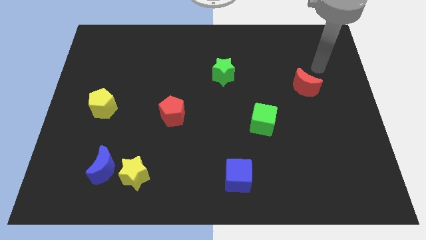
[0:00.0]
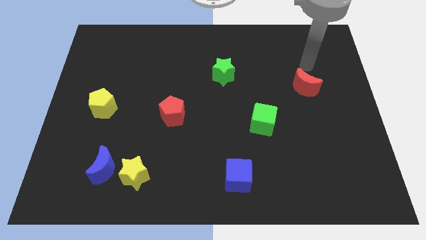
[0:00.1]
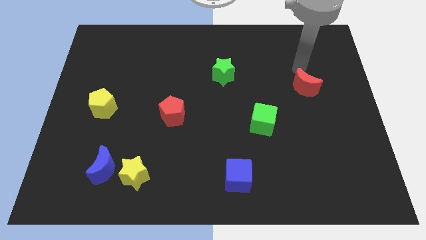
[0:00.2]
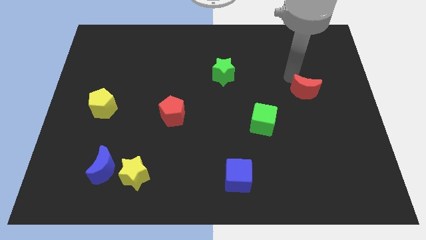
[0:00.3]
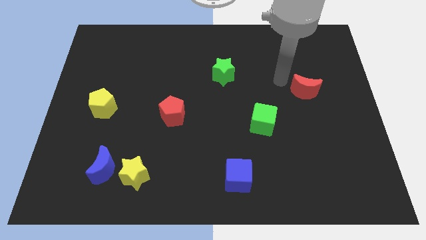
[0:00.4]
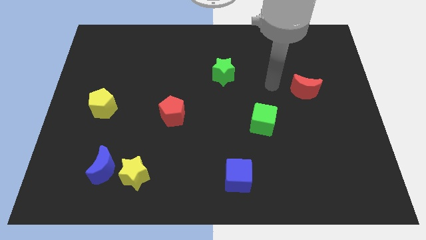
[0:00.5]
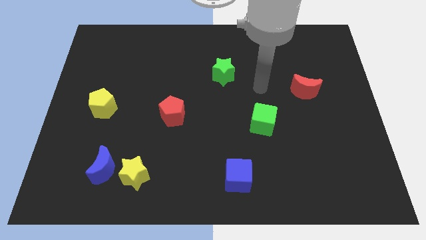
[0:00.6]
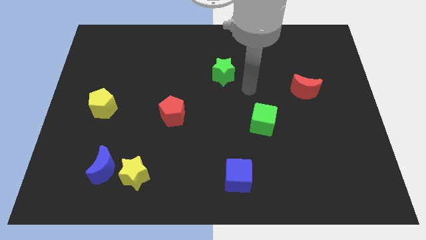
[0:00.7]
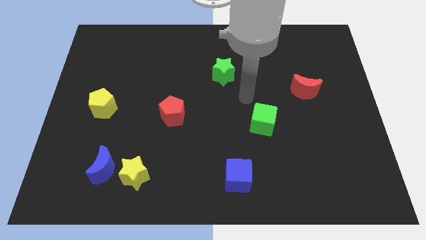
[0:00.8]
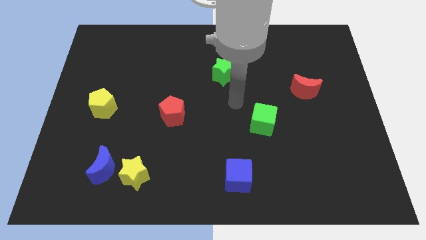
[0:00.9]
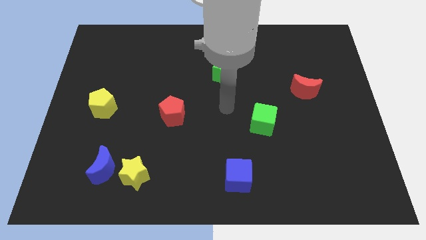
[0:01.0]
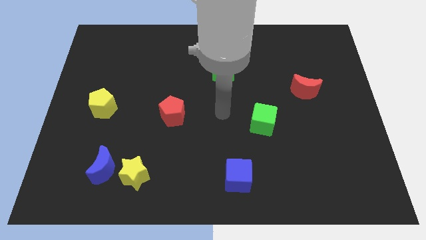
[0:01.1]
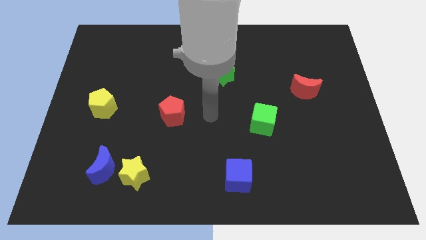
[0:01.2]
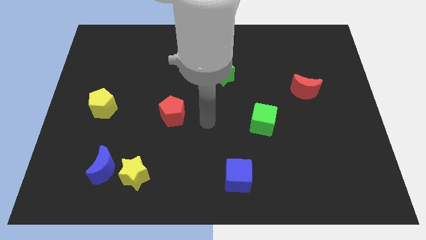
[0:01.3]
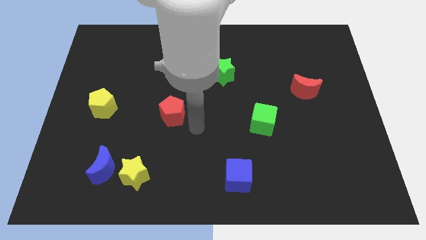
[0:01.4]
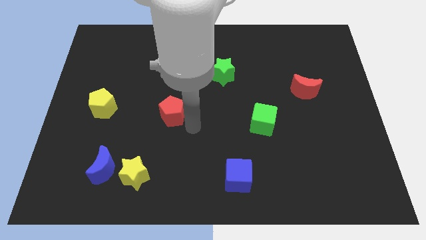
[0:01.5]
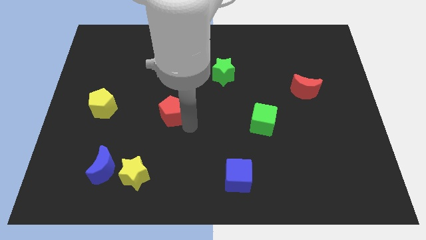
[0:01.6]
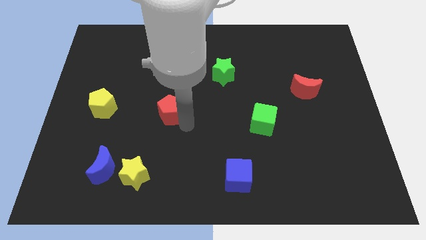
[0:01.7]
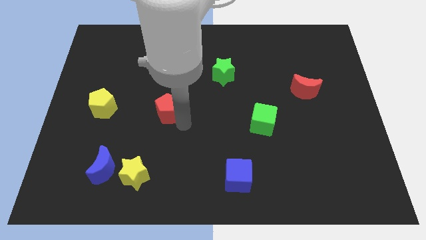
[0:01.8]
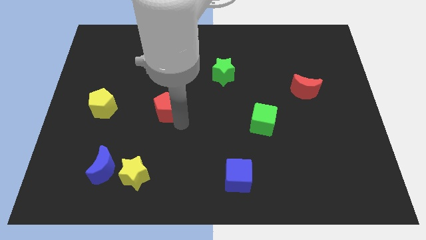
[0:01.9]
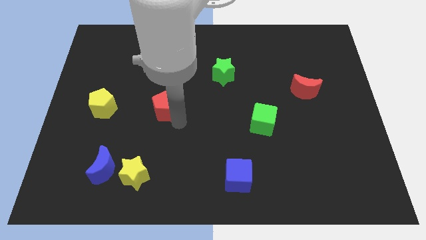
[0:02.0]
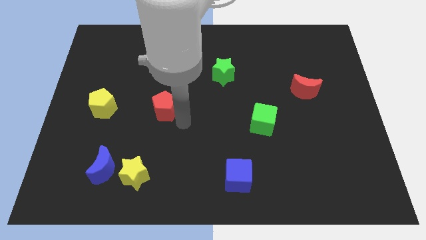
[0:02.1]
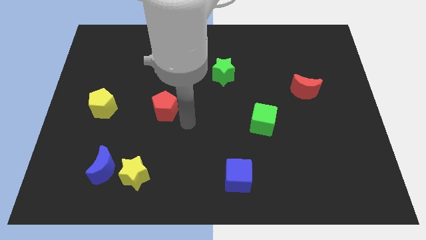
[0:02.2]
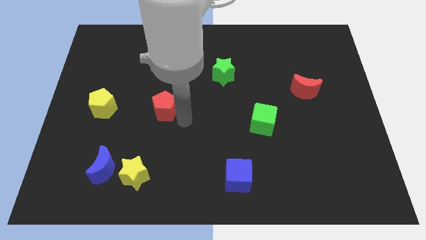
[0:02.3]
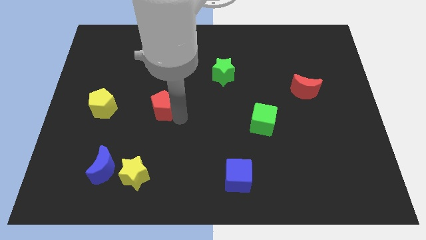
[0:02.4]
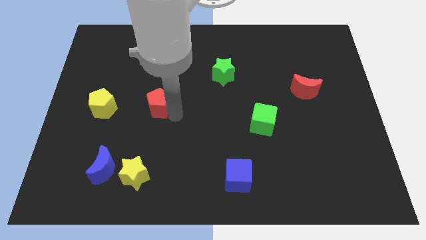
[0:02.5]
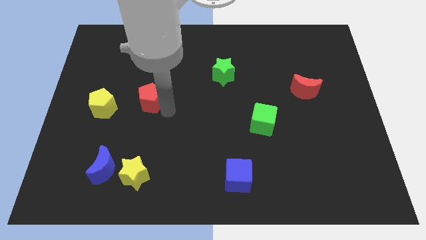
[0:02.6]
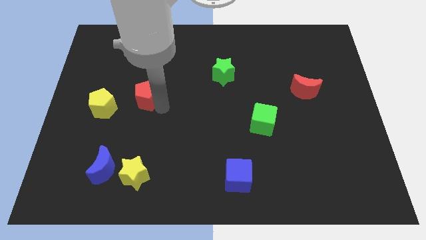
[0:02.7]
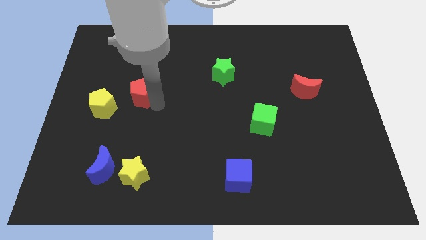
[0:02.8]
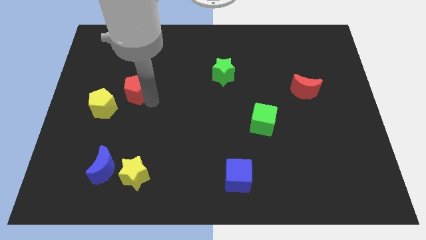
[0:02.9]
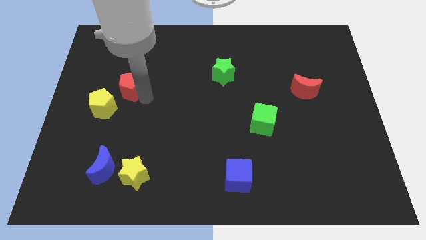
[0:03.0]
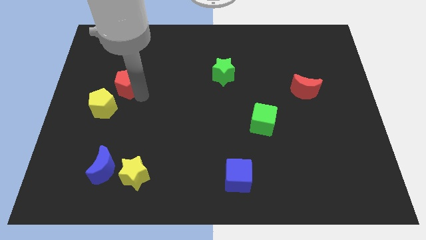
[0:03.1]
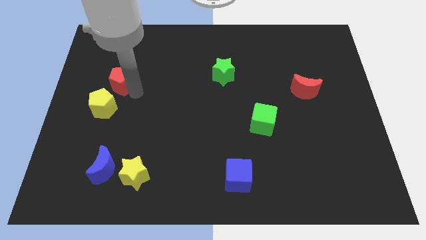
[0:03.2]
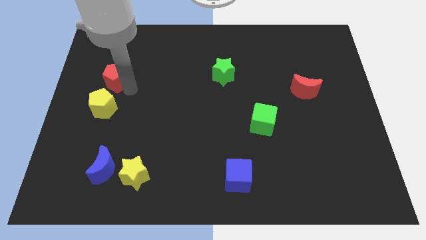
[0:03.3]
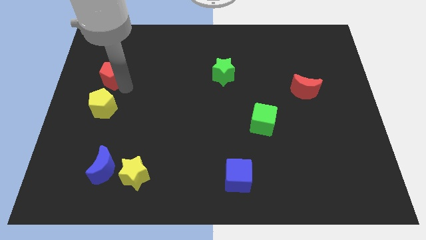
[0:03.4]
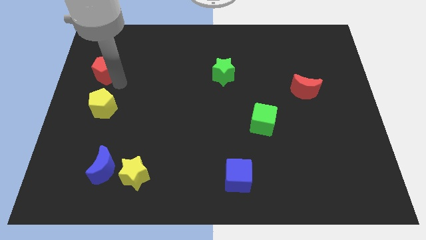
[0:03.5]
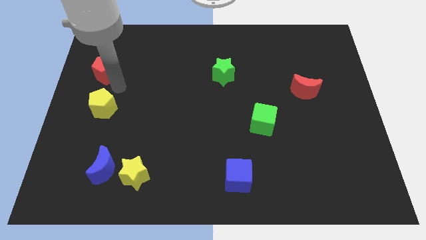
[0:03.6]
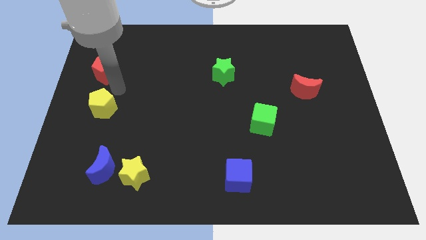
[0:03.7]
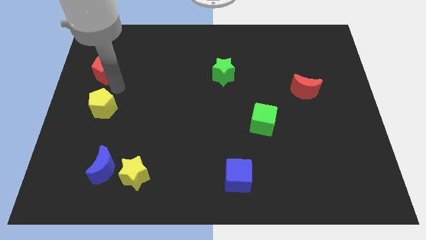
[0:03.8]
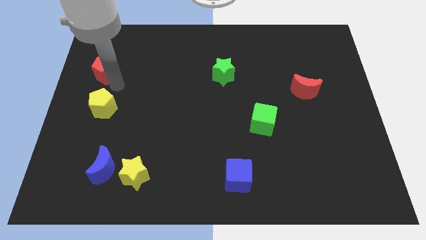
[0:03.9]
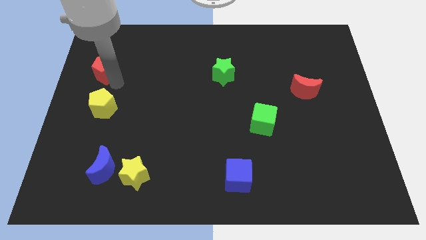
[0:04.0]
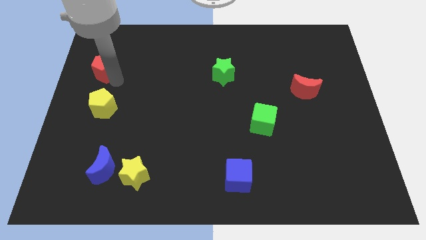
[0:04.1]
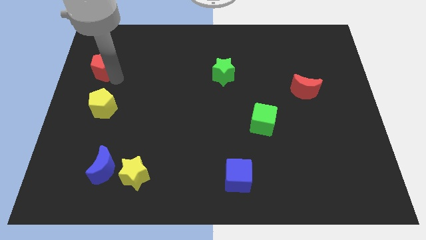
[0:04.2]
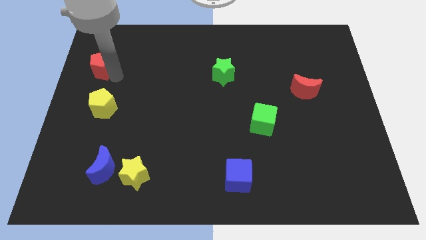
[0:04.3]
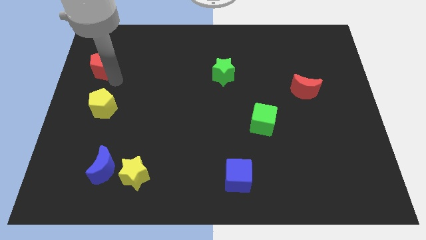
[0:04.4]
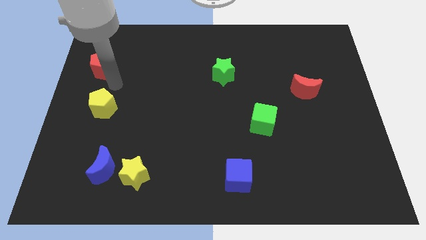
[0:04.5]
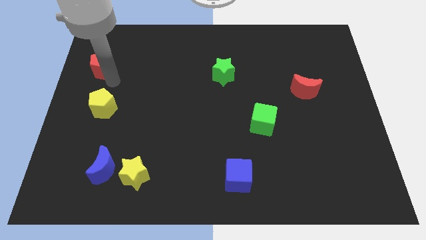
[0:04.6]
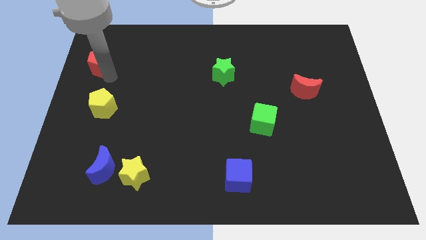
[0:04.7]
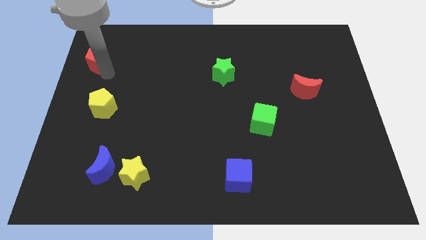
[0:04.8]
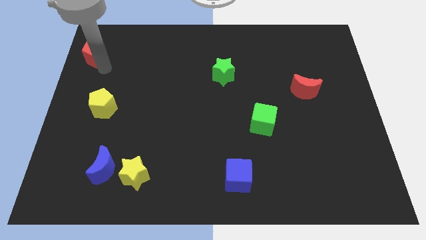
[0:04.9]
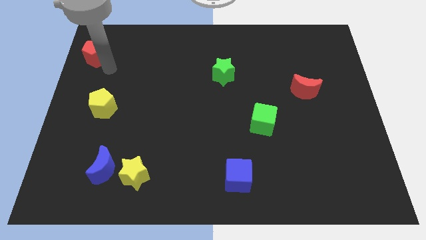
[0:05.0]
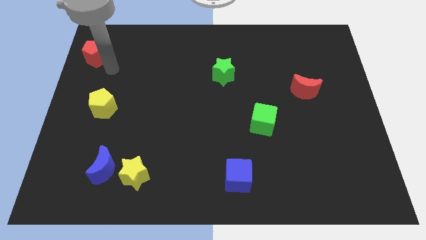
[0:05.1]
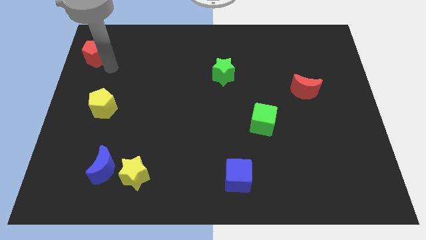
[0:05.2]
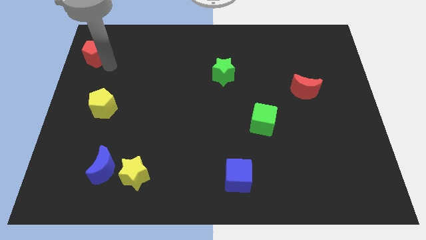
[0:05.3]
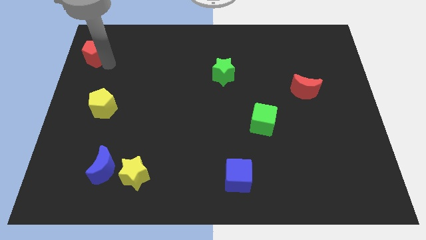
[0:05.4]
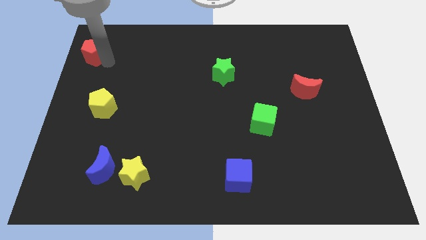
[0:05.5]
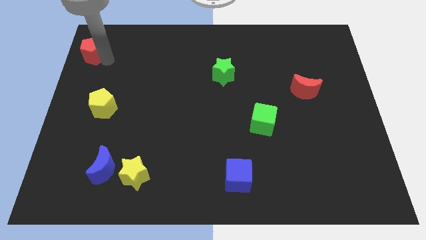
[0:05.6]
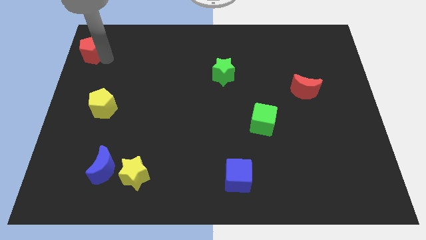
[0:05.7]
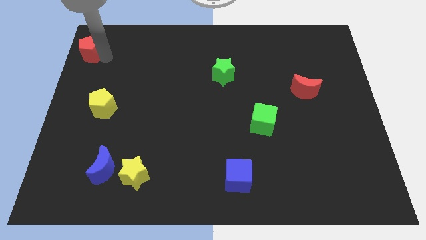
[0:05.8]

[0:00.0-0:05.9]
move the red pentagon to the top left corner

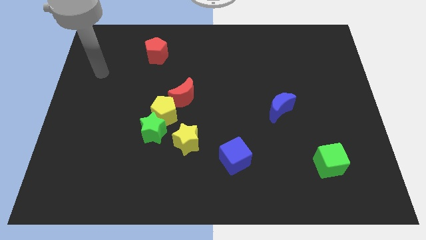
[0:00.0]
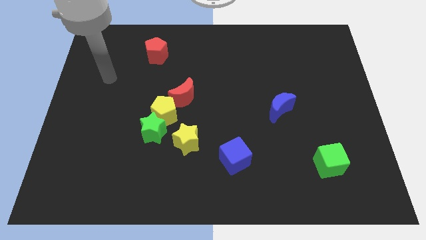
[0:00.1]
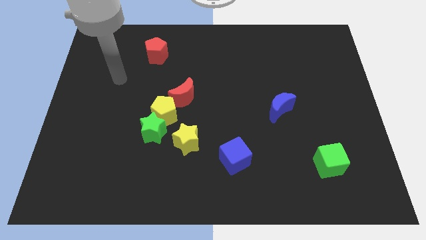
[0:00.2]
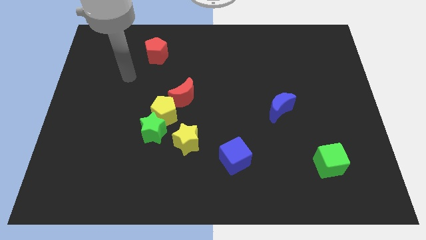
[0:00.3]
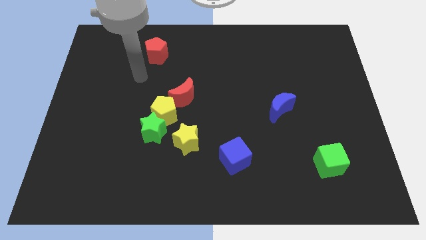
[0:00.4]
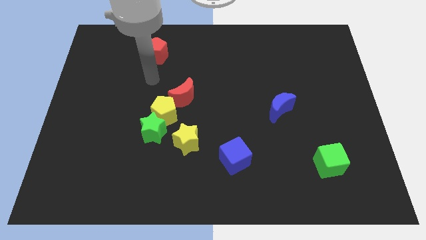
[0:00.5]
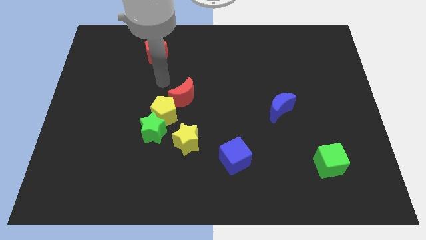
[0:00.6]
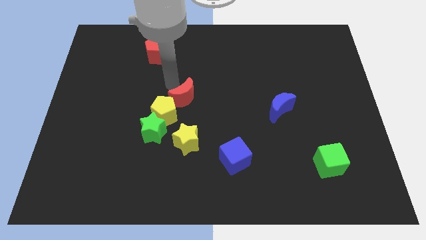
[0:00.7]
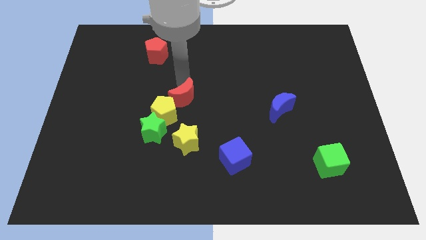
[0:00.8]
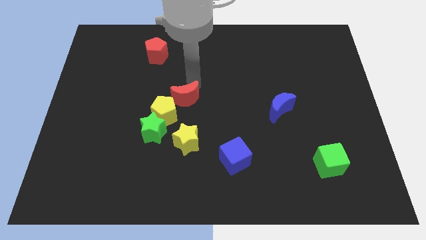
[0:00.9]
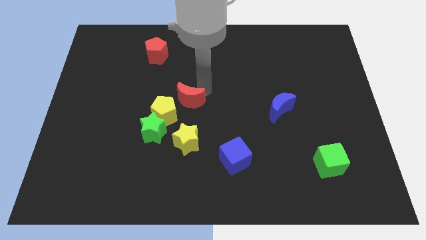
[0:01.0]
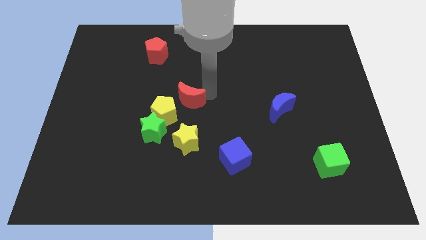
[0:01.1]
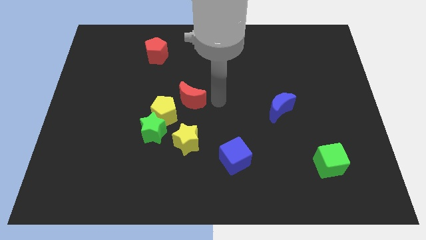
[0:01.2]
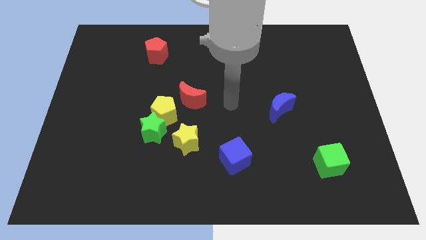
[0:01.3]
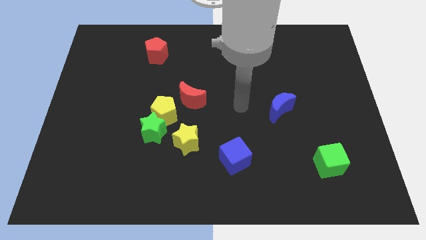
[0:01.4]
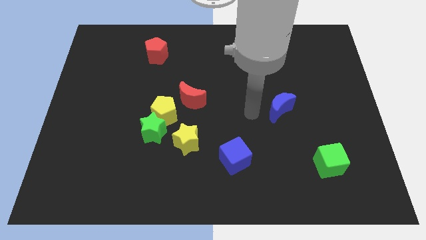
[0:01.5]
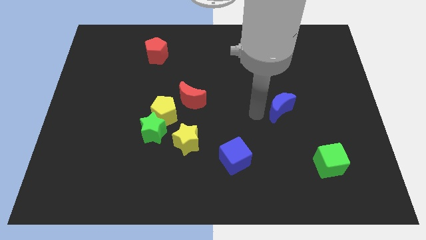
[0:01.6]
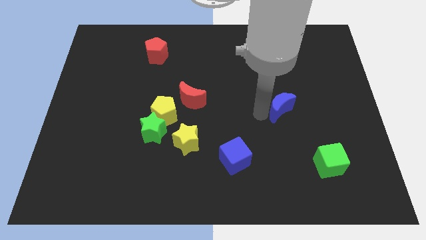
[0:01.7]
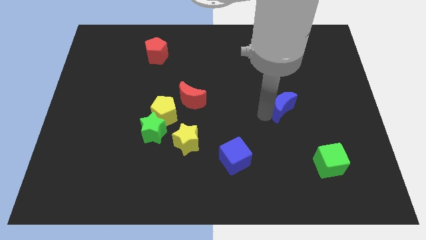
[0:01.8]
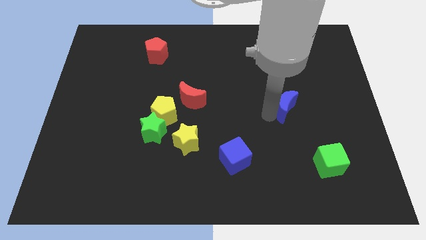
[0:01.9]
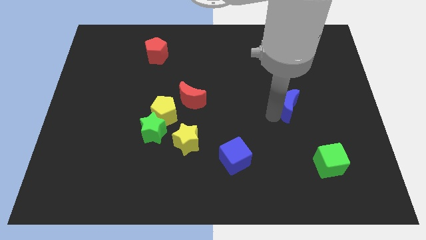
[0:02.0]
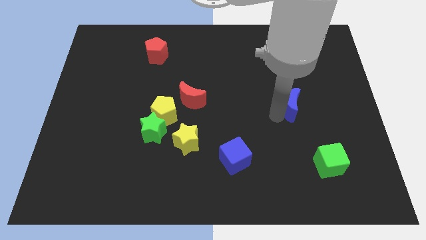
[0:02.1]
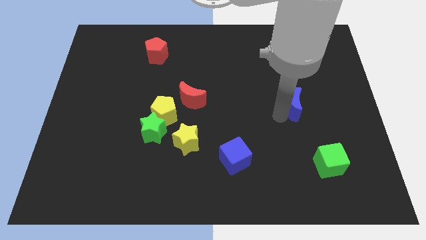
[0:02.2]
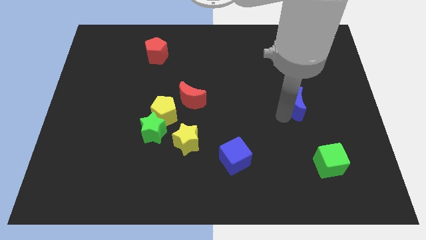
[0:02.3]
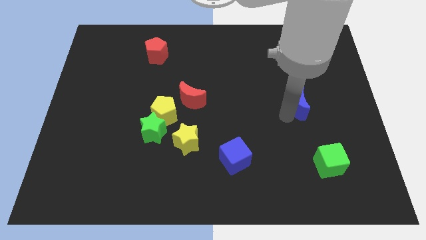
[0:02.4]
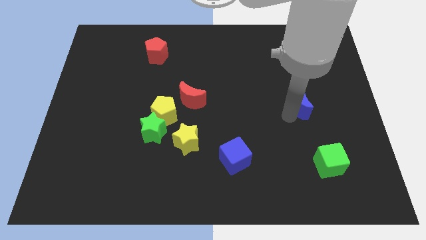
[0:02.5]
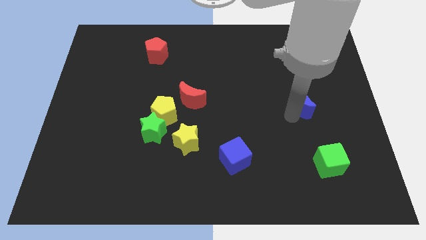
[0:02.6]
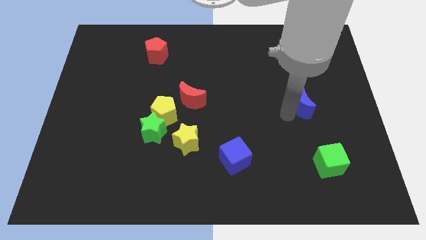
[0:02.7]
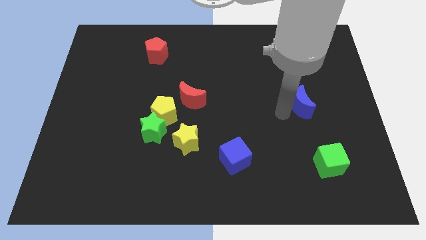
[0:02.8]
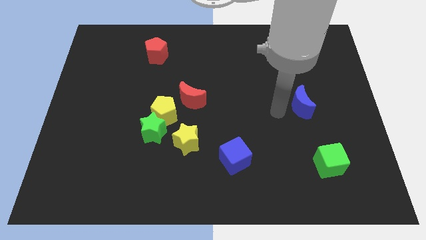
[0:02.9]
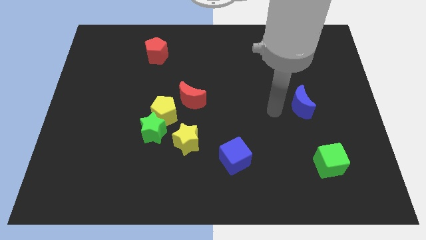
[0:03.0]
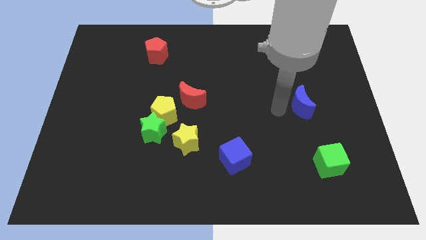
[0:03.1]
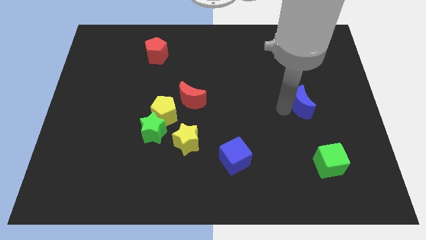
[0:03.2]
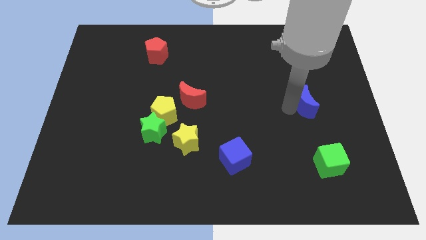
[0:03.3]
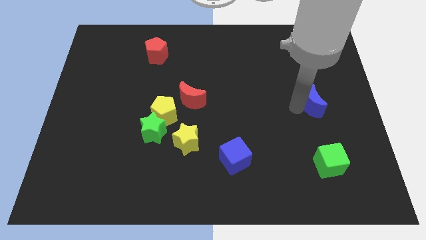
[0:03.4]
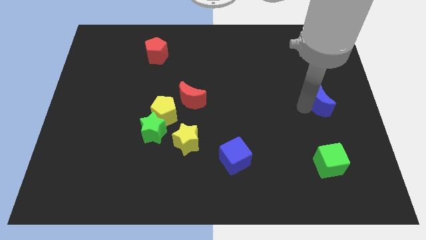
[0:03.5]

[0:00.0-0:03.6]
move the blue moon to the right side
